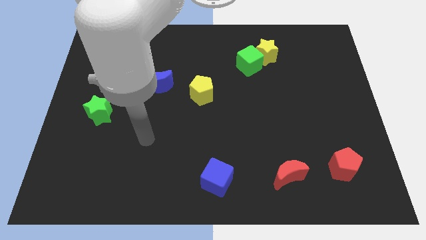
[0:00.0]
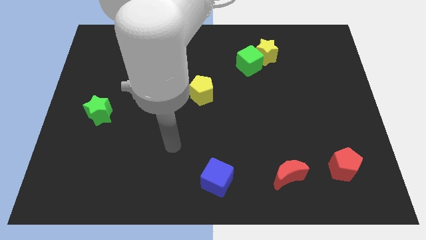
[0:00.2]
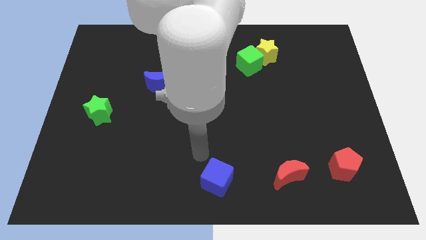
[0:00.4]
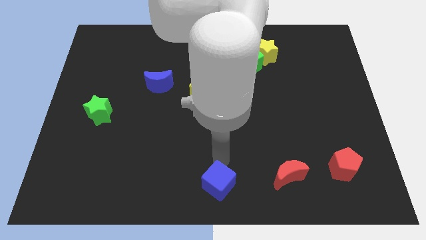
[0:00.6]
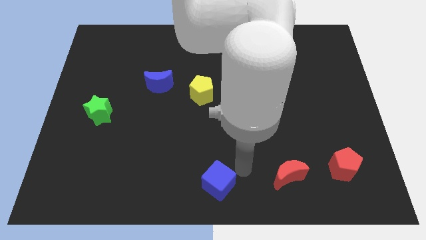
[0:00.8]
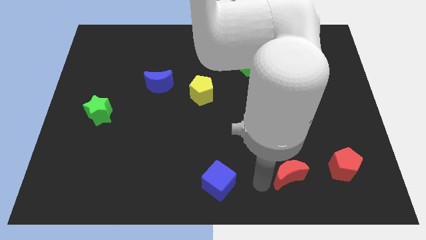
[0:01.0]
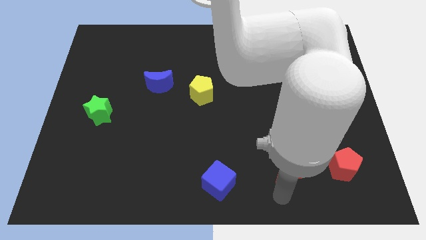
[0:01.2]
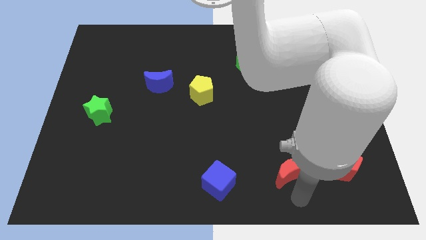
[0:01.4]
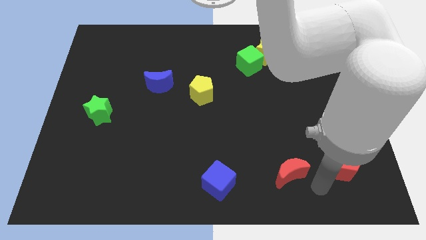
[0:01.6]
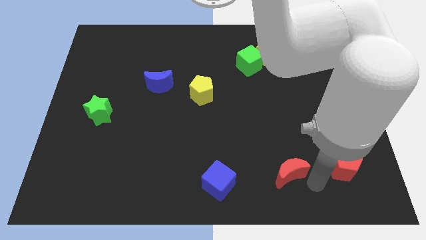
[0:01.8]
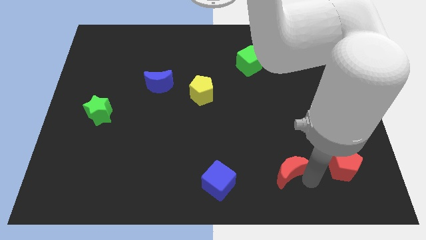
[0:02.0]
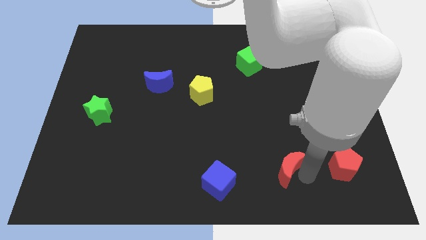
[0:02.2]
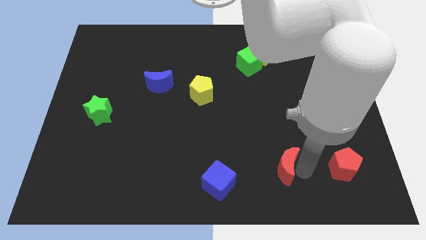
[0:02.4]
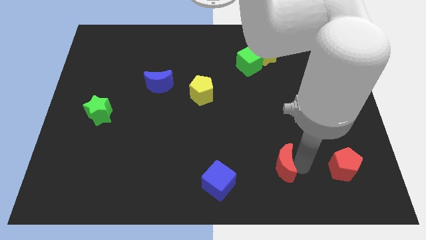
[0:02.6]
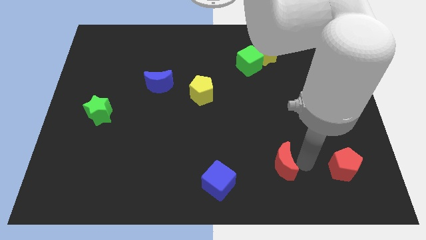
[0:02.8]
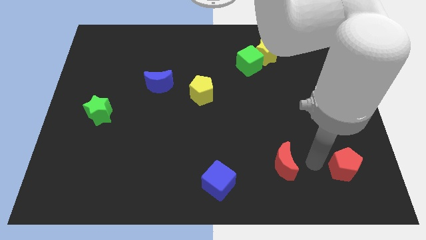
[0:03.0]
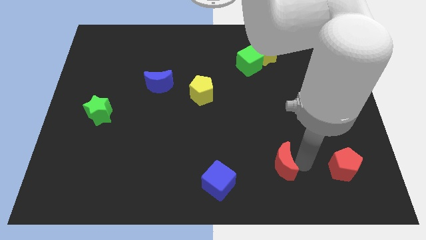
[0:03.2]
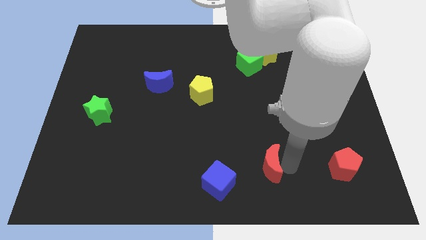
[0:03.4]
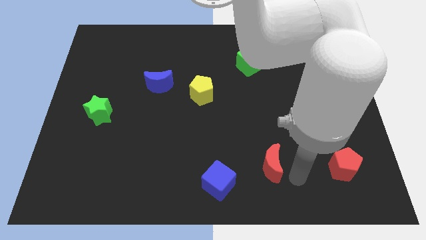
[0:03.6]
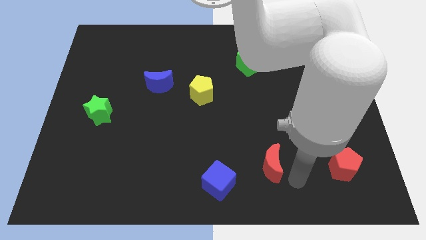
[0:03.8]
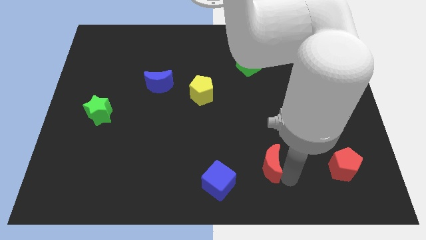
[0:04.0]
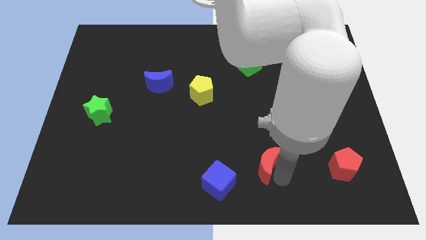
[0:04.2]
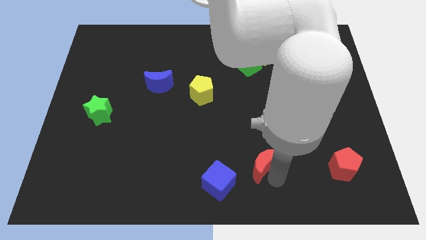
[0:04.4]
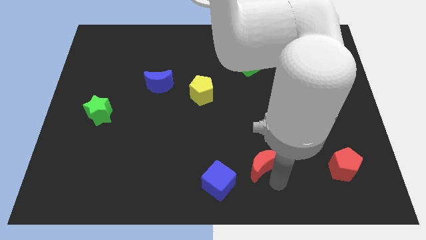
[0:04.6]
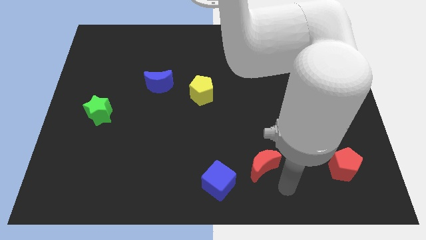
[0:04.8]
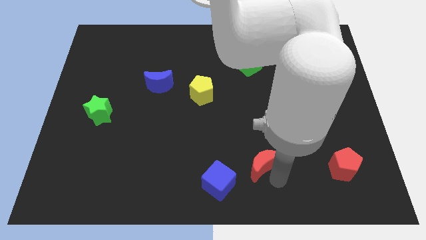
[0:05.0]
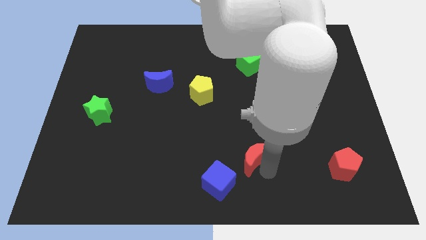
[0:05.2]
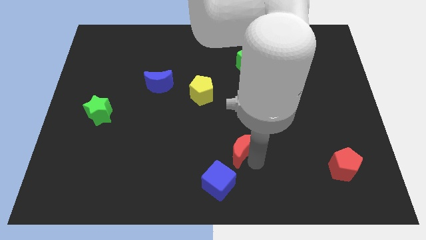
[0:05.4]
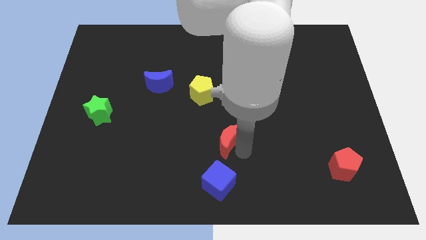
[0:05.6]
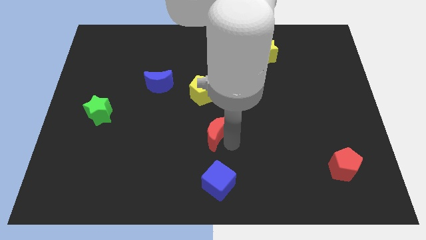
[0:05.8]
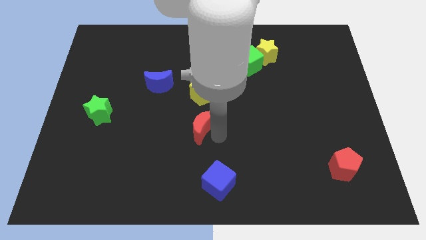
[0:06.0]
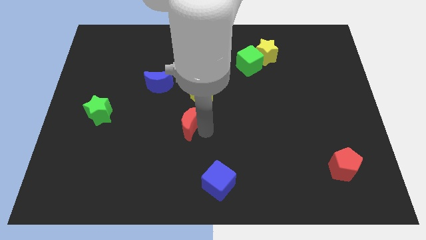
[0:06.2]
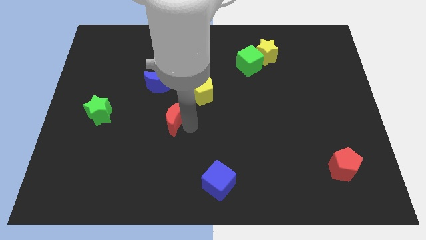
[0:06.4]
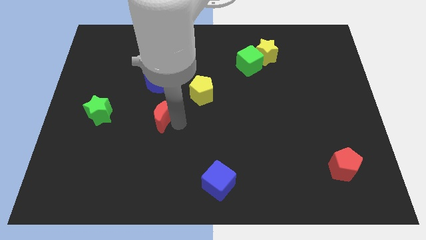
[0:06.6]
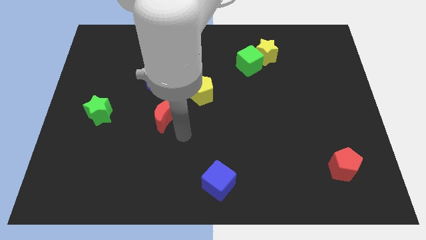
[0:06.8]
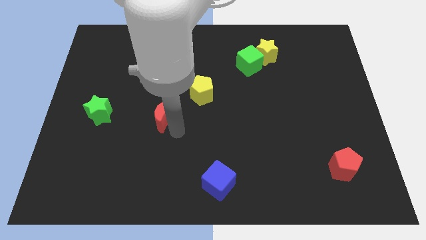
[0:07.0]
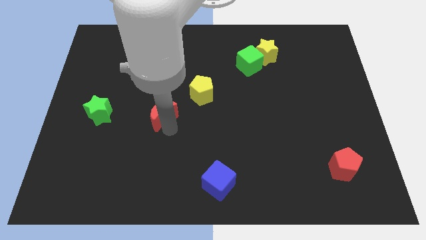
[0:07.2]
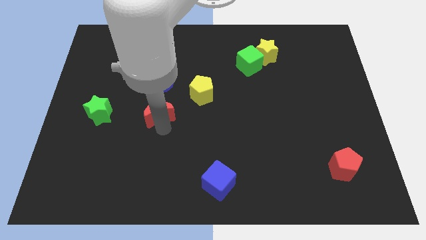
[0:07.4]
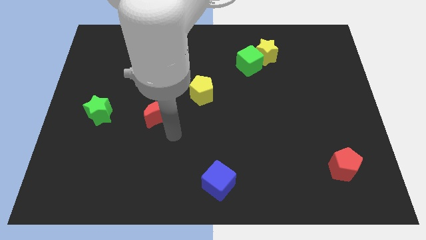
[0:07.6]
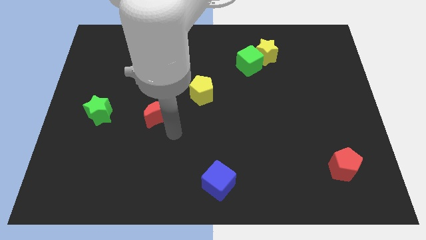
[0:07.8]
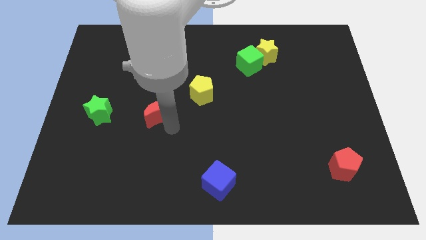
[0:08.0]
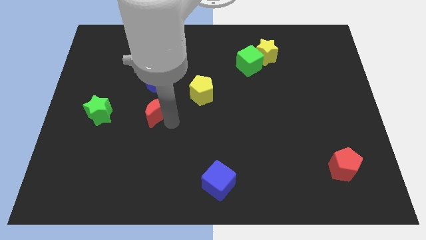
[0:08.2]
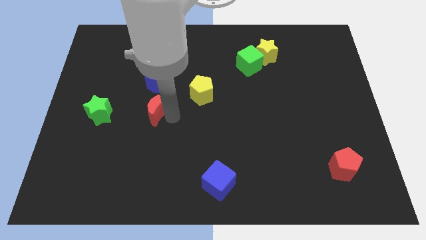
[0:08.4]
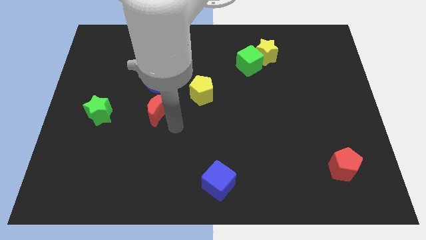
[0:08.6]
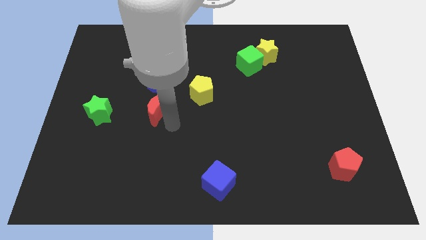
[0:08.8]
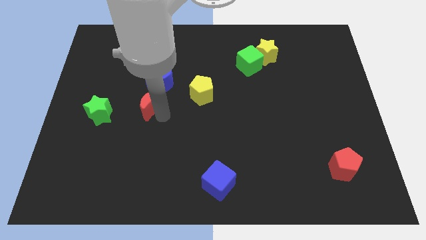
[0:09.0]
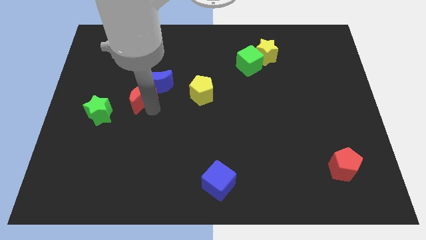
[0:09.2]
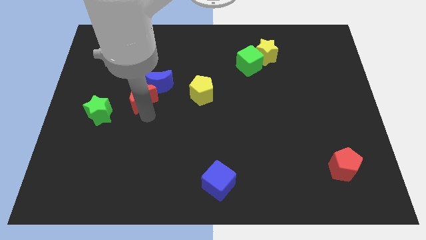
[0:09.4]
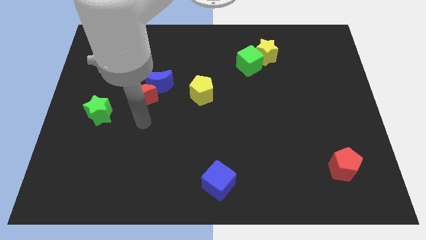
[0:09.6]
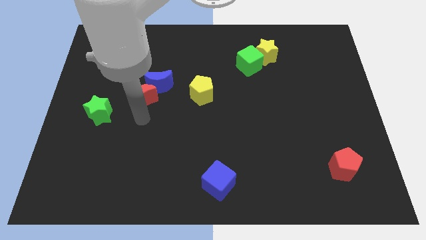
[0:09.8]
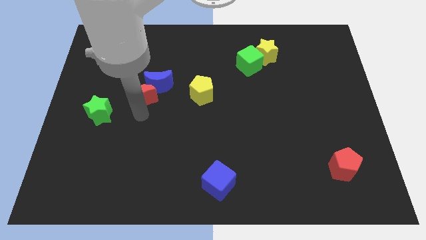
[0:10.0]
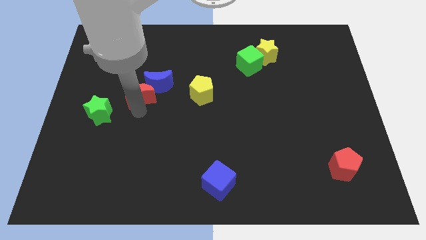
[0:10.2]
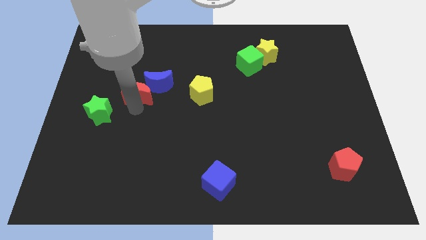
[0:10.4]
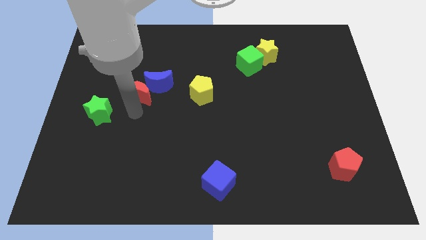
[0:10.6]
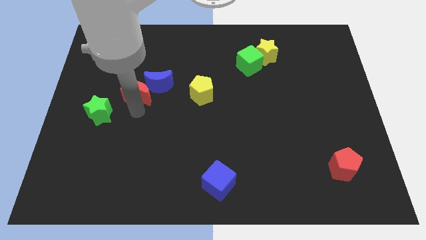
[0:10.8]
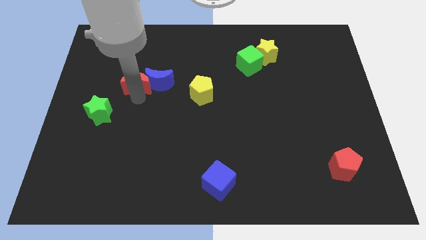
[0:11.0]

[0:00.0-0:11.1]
put the red moon to the top left side of the blue moon

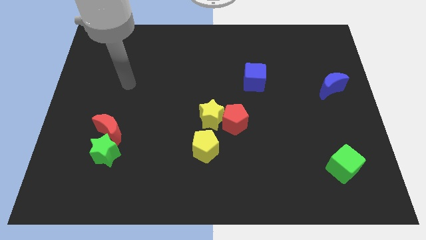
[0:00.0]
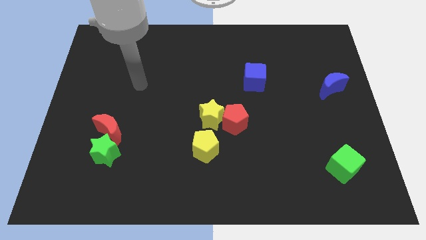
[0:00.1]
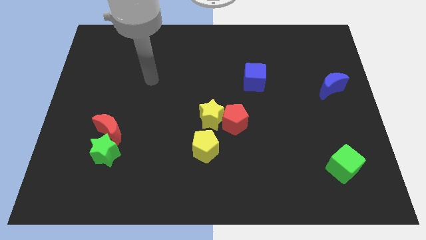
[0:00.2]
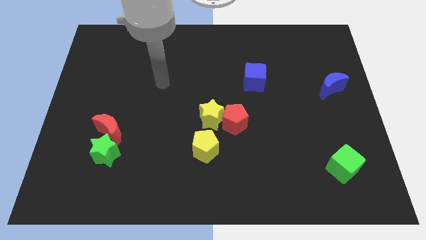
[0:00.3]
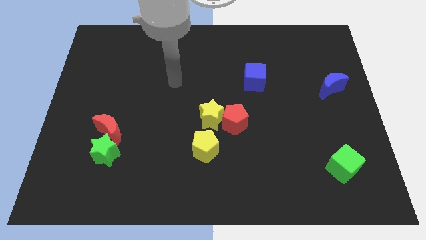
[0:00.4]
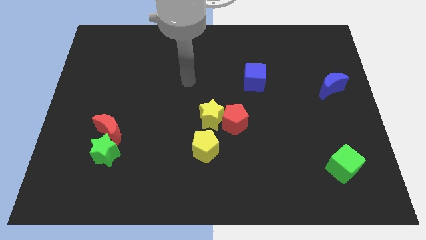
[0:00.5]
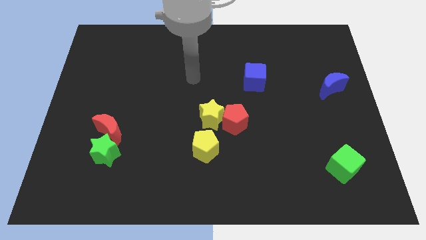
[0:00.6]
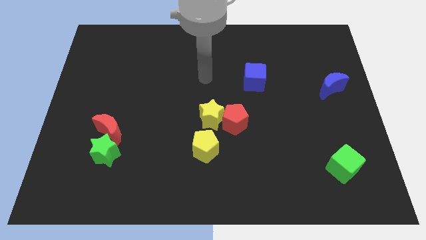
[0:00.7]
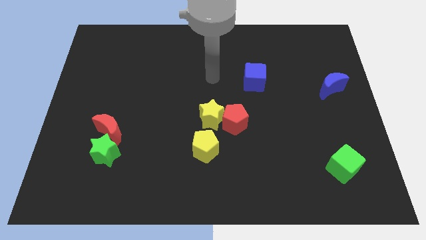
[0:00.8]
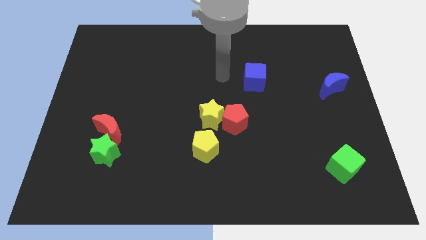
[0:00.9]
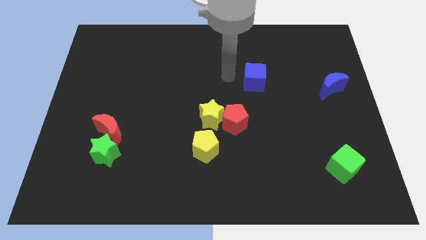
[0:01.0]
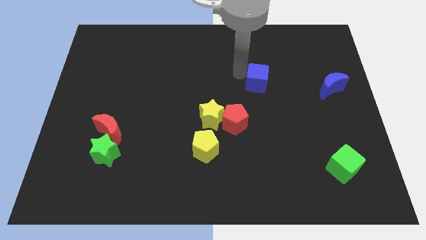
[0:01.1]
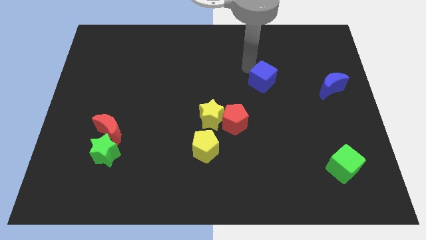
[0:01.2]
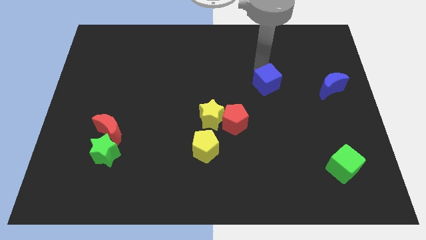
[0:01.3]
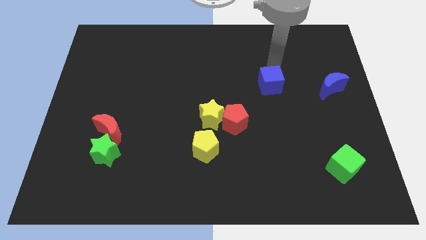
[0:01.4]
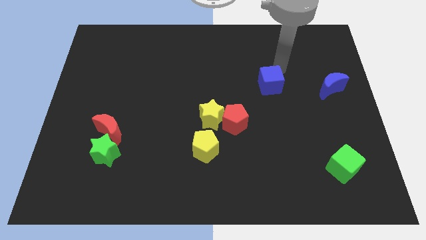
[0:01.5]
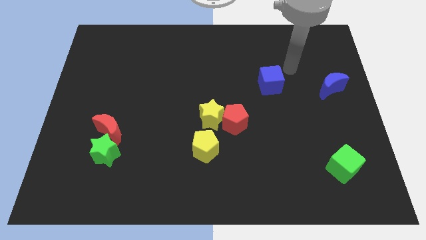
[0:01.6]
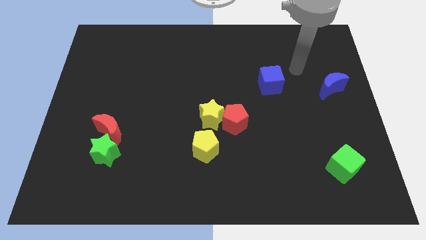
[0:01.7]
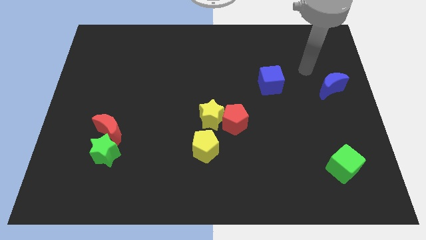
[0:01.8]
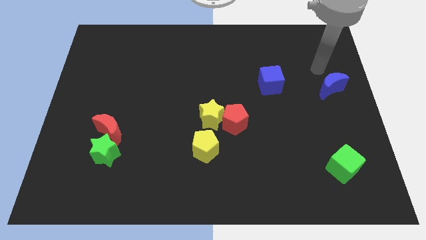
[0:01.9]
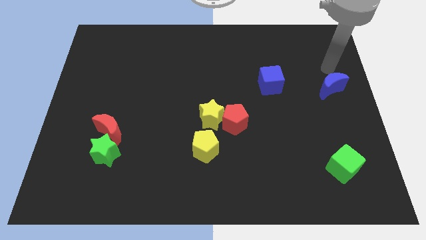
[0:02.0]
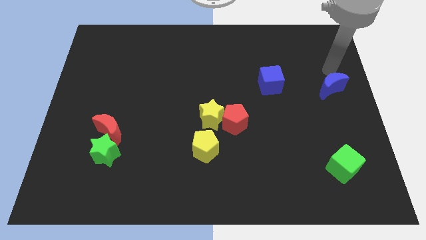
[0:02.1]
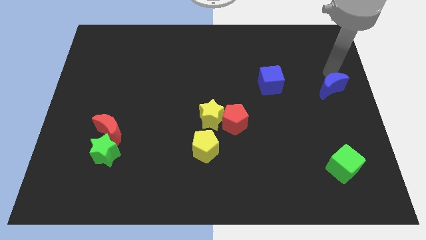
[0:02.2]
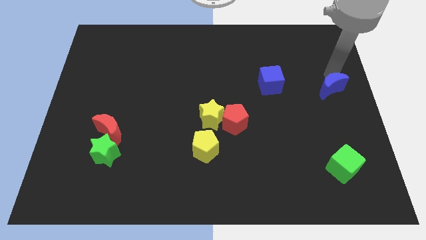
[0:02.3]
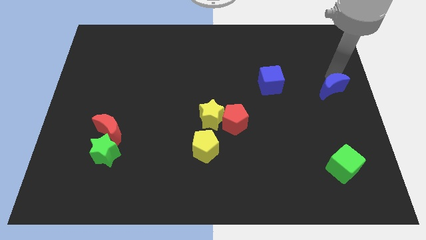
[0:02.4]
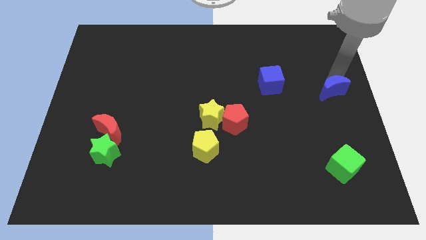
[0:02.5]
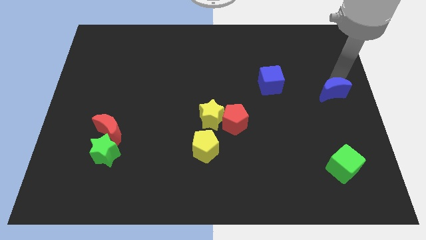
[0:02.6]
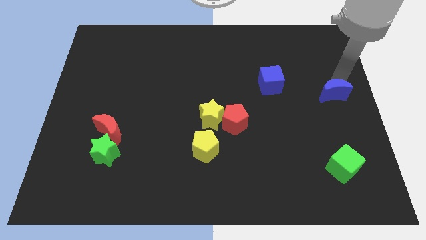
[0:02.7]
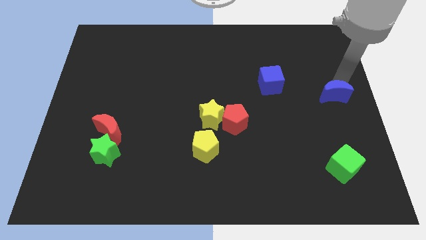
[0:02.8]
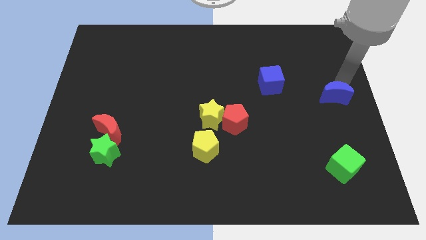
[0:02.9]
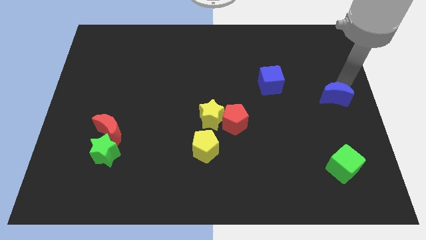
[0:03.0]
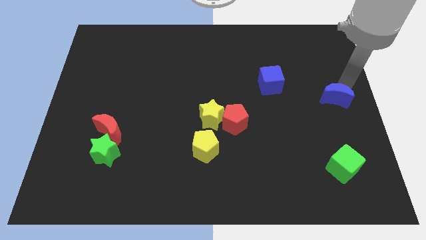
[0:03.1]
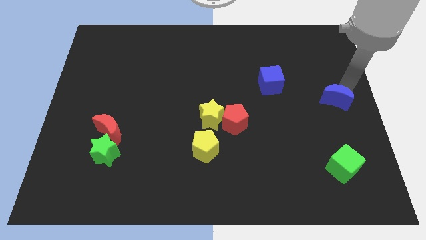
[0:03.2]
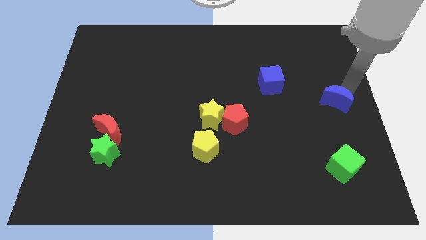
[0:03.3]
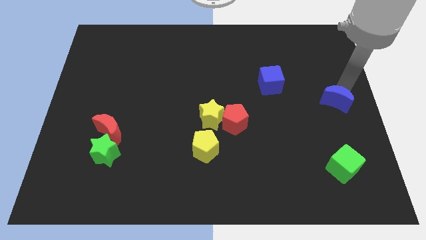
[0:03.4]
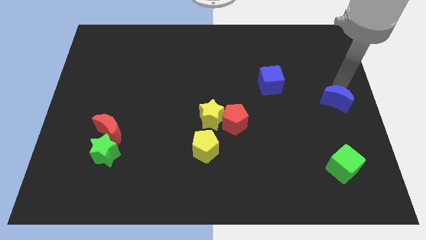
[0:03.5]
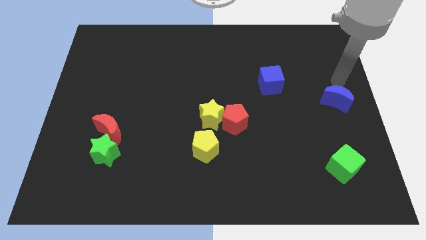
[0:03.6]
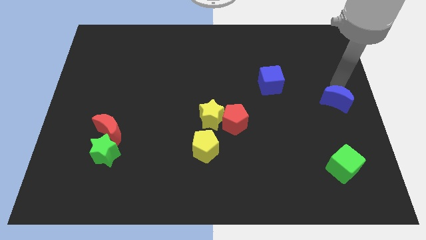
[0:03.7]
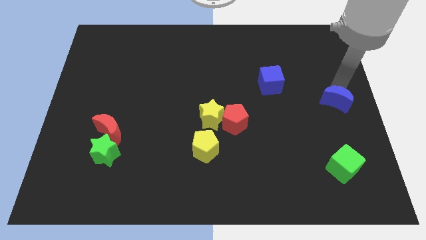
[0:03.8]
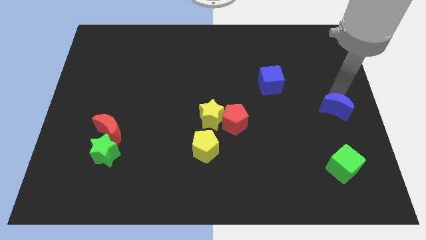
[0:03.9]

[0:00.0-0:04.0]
slide the blue moon above the green cube
